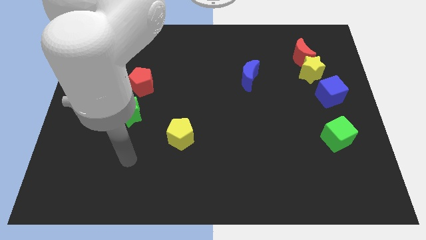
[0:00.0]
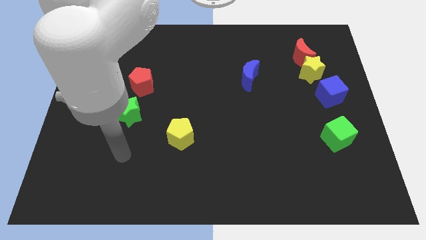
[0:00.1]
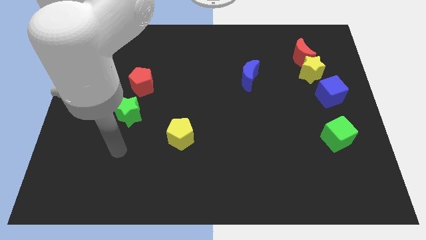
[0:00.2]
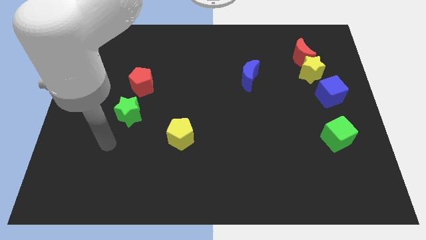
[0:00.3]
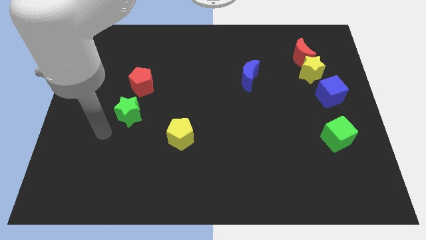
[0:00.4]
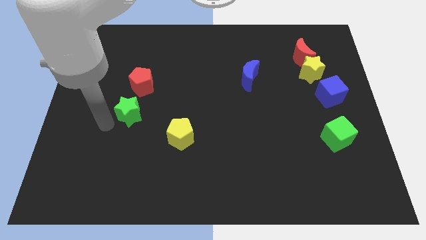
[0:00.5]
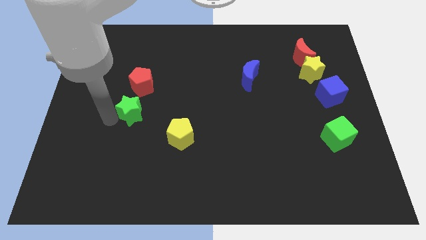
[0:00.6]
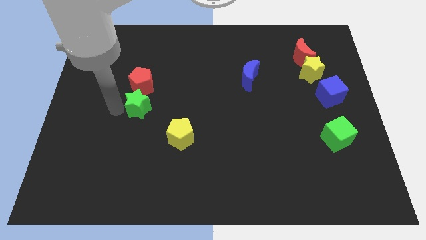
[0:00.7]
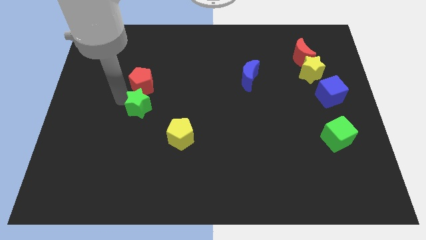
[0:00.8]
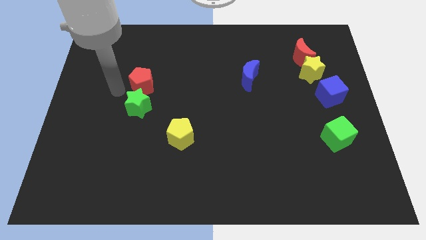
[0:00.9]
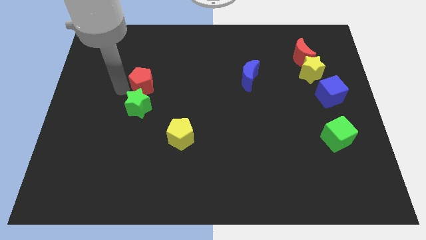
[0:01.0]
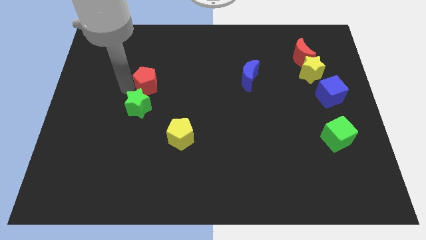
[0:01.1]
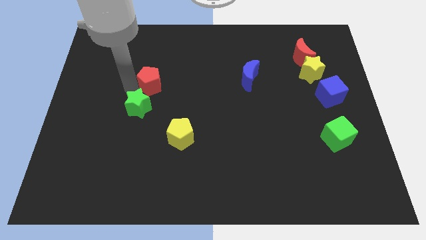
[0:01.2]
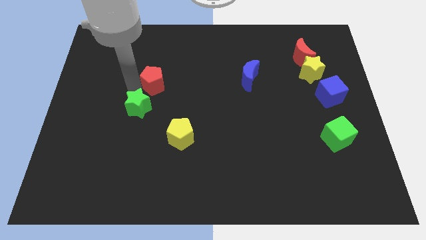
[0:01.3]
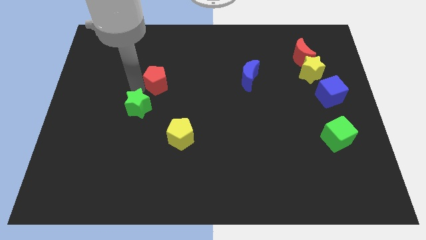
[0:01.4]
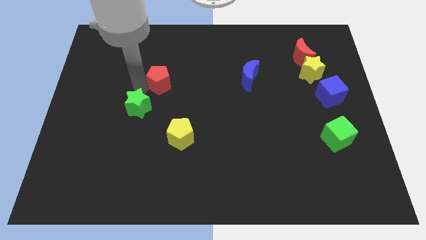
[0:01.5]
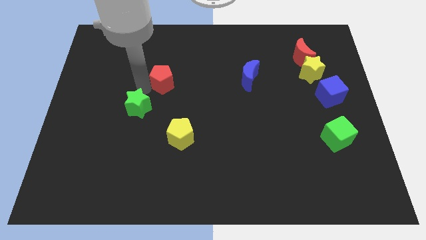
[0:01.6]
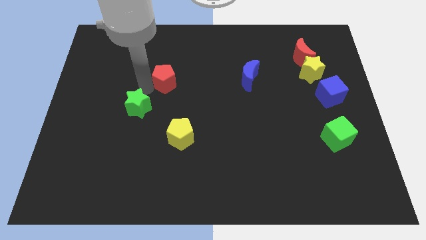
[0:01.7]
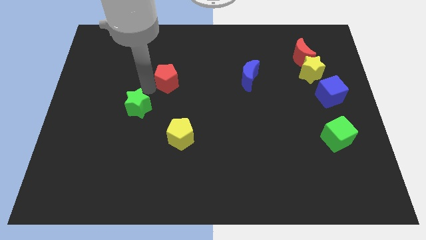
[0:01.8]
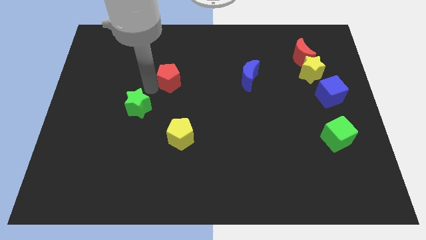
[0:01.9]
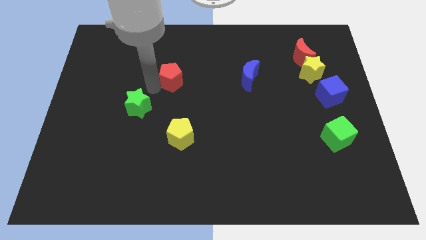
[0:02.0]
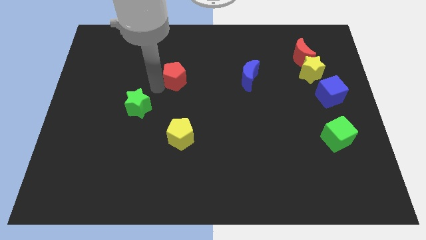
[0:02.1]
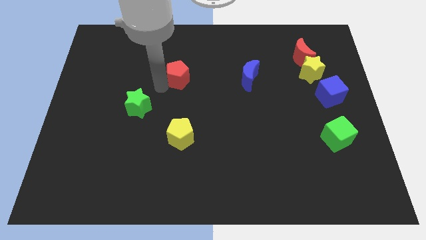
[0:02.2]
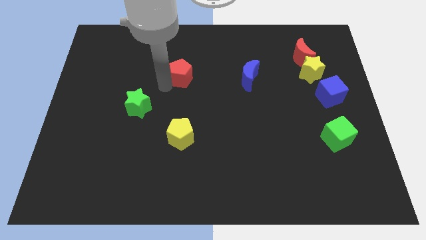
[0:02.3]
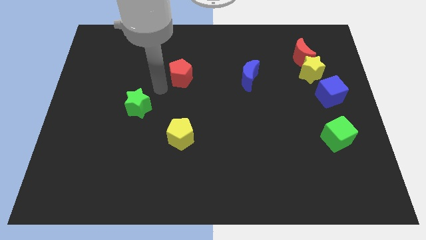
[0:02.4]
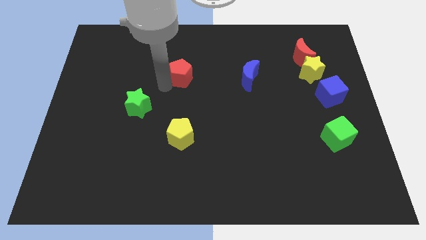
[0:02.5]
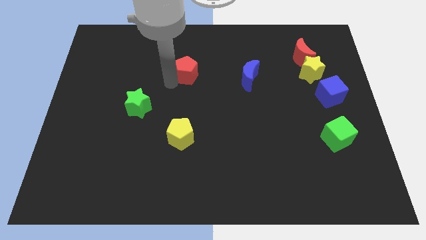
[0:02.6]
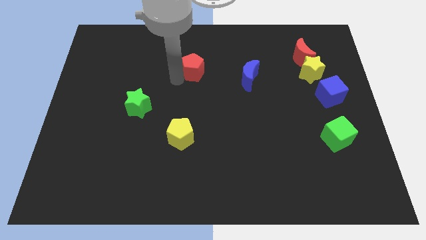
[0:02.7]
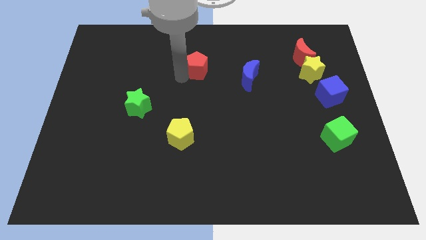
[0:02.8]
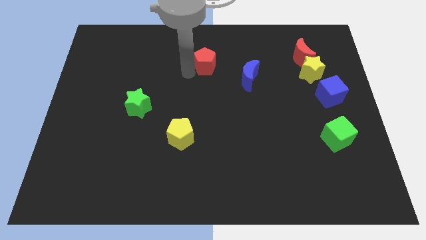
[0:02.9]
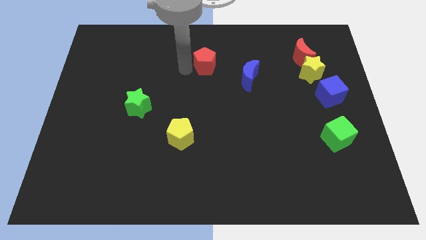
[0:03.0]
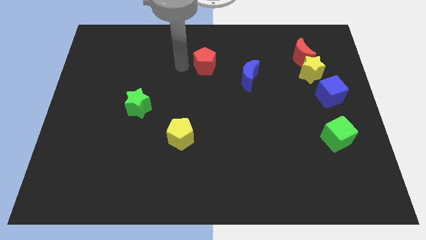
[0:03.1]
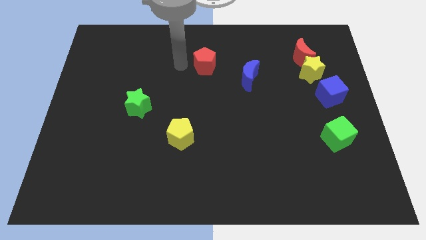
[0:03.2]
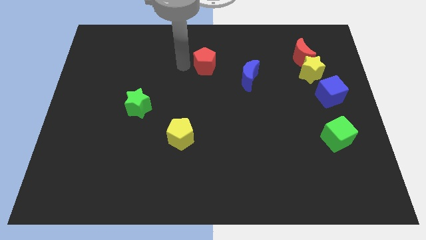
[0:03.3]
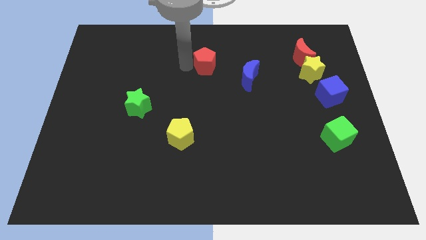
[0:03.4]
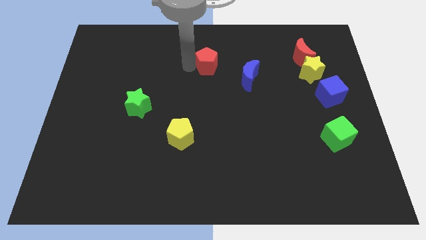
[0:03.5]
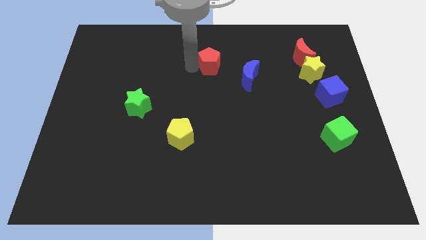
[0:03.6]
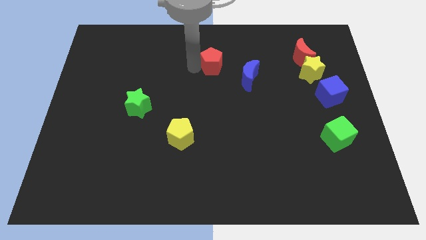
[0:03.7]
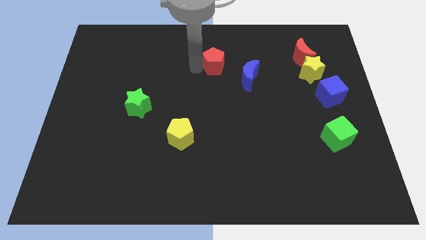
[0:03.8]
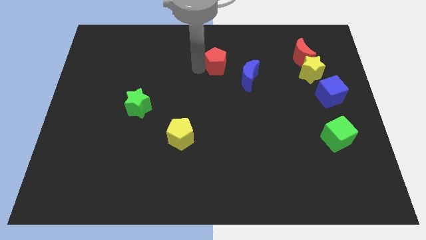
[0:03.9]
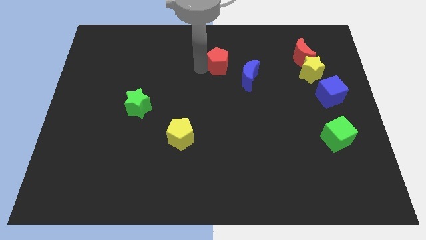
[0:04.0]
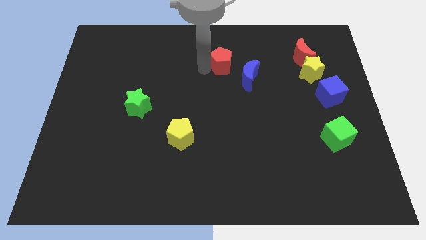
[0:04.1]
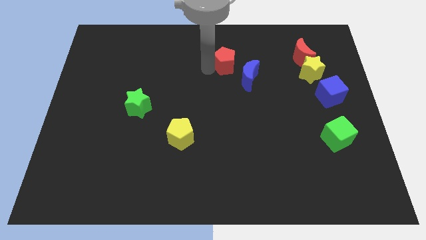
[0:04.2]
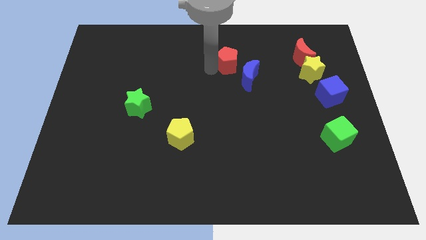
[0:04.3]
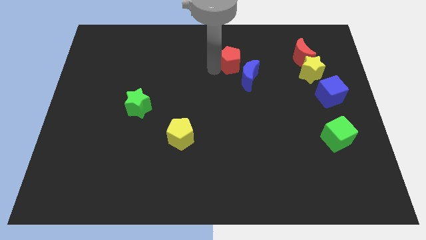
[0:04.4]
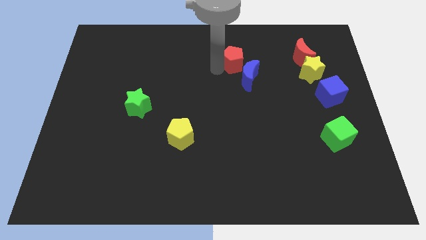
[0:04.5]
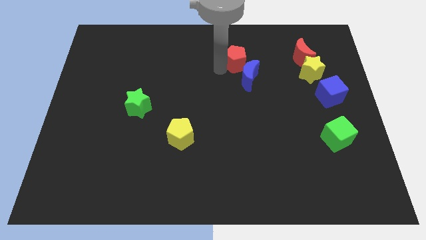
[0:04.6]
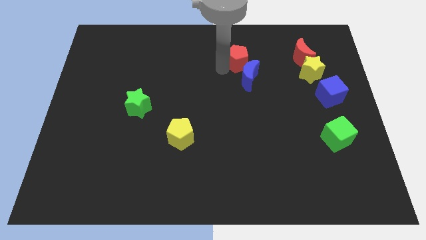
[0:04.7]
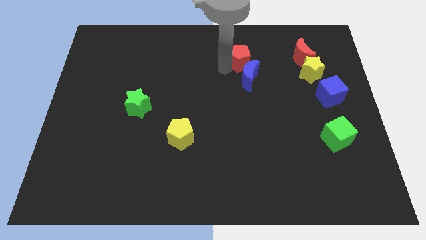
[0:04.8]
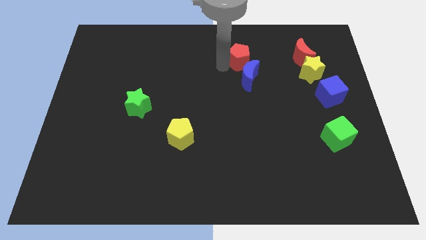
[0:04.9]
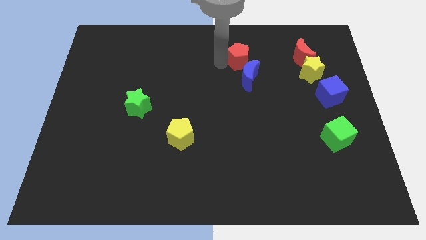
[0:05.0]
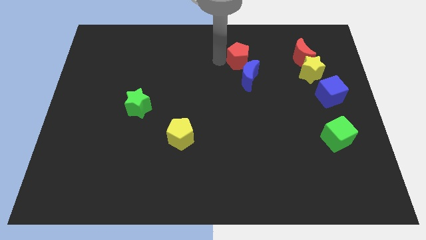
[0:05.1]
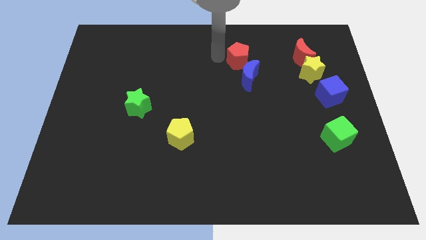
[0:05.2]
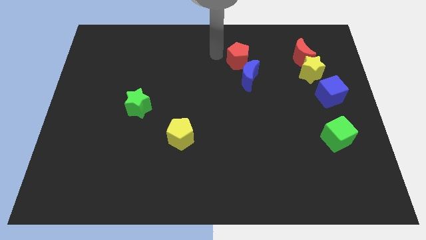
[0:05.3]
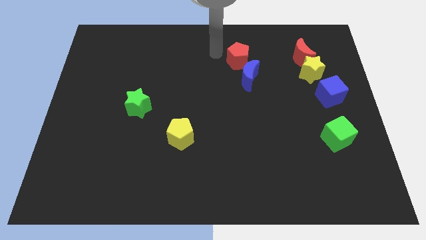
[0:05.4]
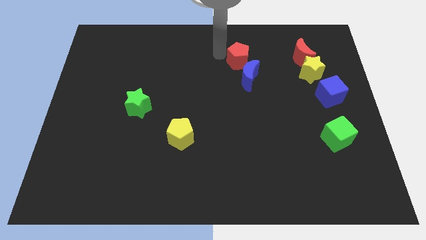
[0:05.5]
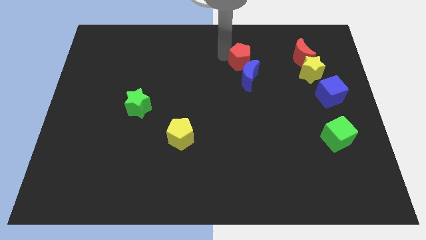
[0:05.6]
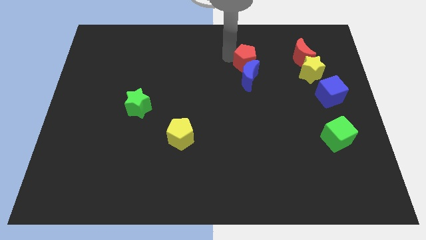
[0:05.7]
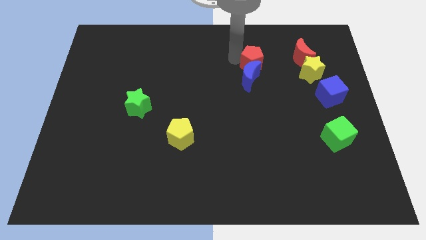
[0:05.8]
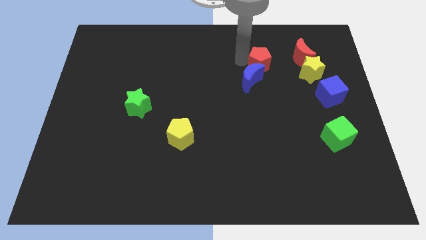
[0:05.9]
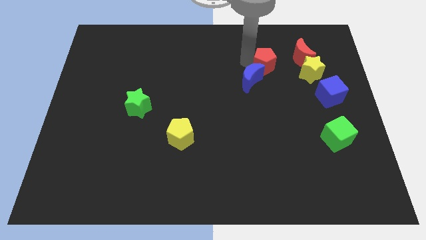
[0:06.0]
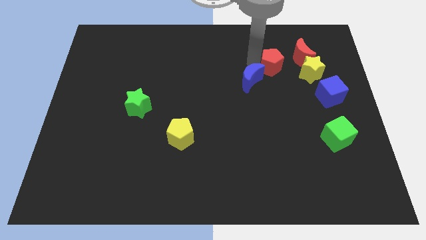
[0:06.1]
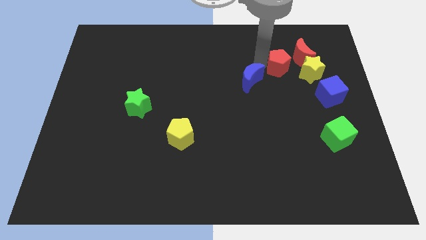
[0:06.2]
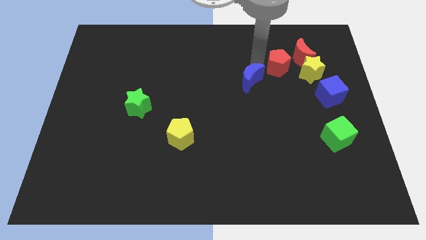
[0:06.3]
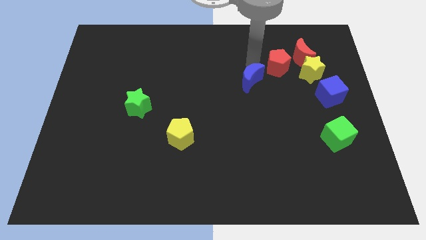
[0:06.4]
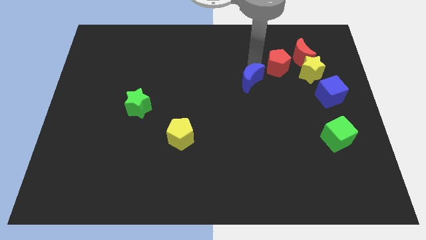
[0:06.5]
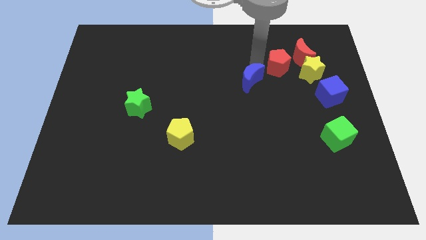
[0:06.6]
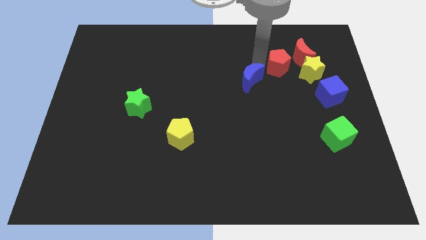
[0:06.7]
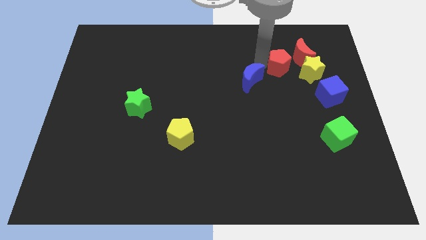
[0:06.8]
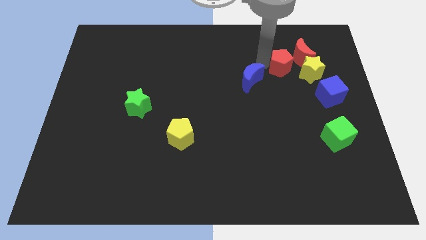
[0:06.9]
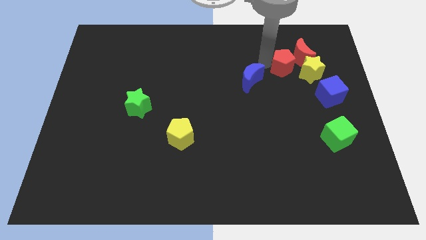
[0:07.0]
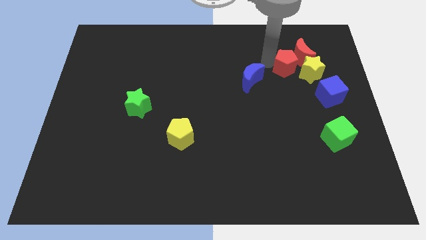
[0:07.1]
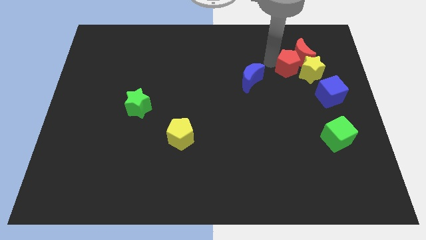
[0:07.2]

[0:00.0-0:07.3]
put the red pentagon to the yellow star
